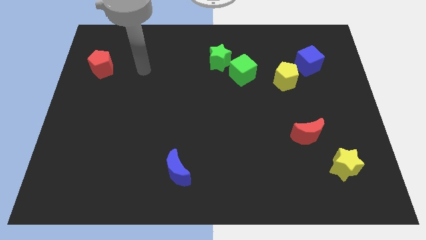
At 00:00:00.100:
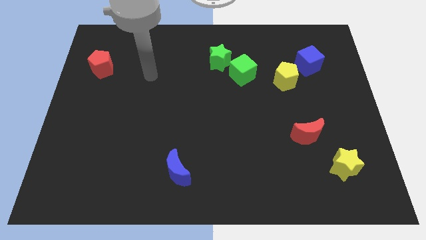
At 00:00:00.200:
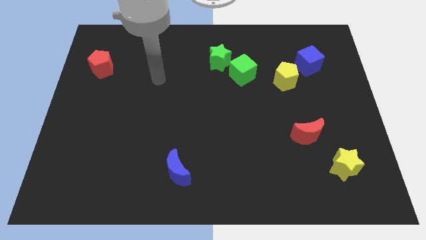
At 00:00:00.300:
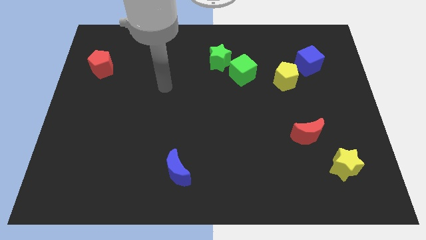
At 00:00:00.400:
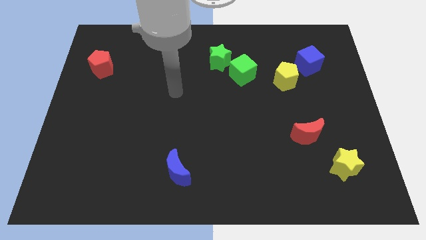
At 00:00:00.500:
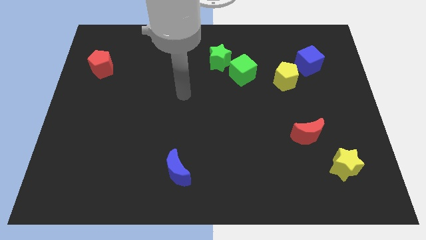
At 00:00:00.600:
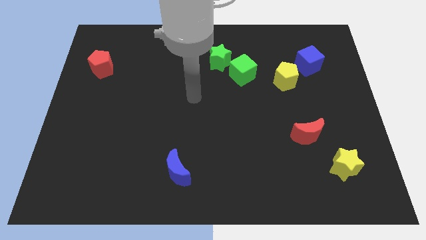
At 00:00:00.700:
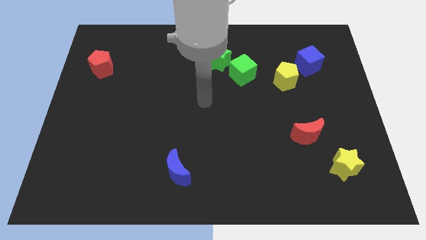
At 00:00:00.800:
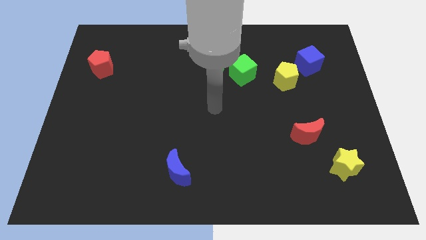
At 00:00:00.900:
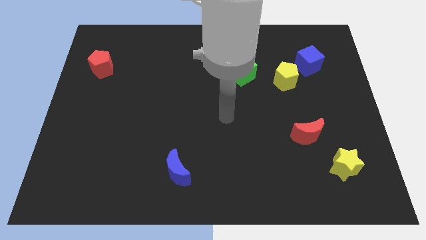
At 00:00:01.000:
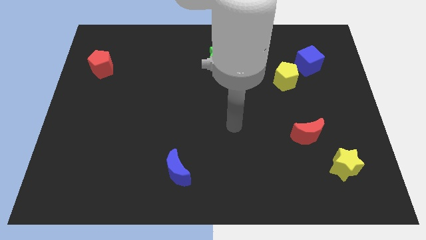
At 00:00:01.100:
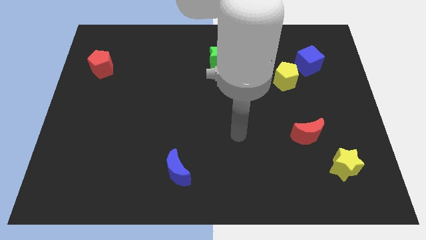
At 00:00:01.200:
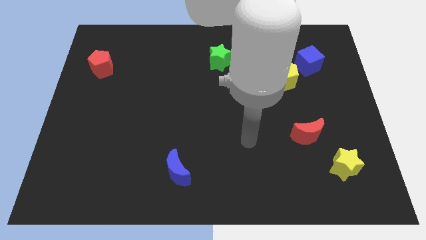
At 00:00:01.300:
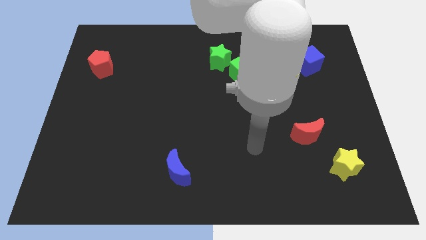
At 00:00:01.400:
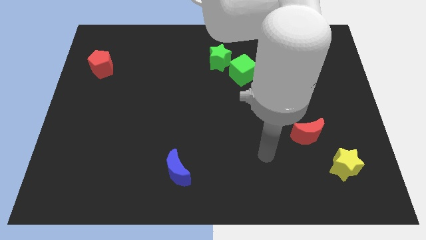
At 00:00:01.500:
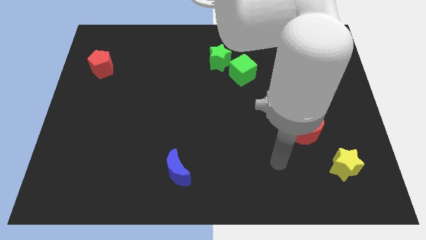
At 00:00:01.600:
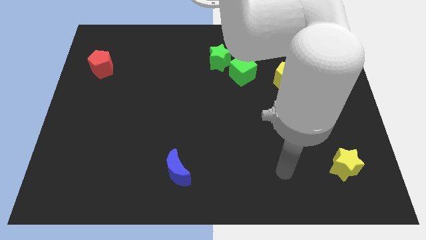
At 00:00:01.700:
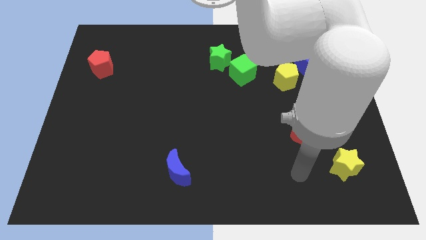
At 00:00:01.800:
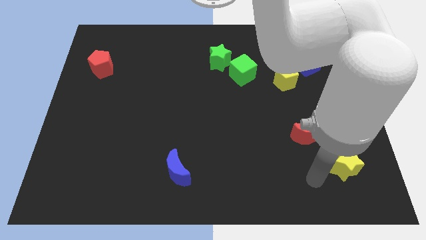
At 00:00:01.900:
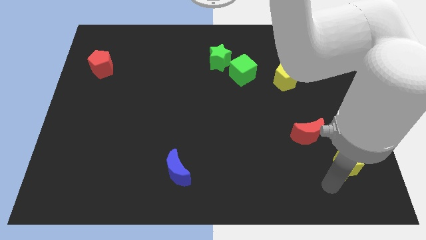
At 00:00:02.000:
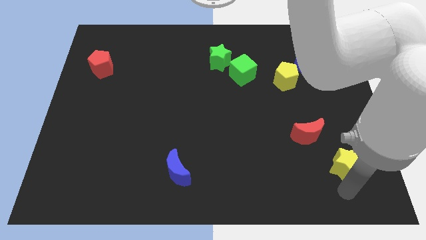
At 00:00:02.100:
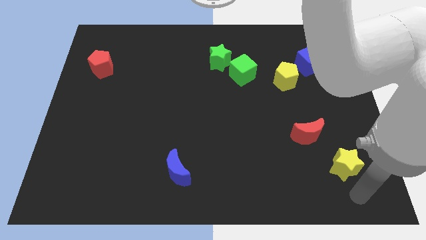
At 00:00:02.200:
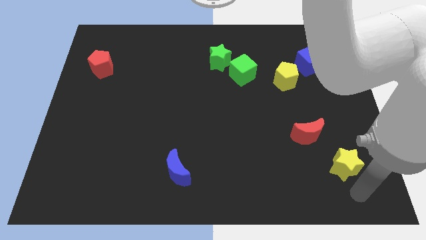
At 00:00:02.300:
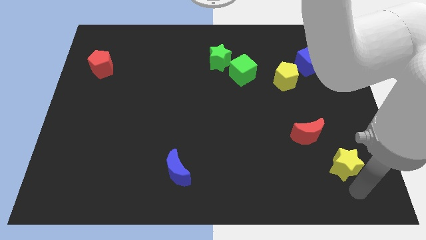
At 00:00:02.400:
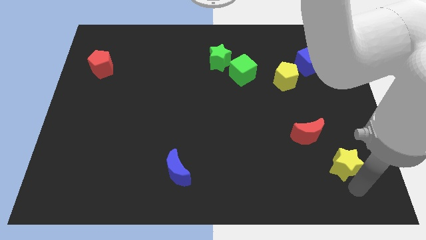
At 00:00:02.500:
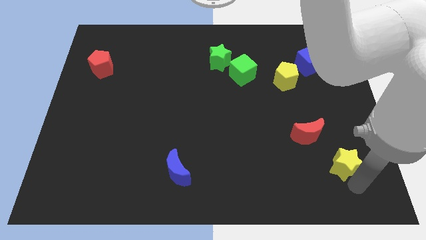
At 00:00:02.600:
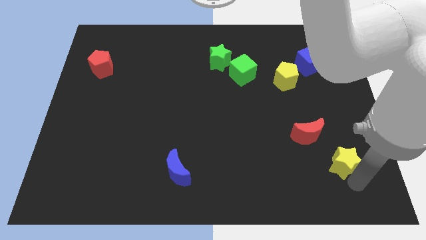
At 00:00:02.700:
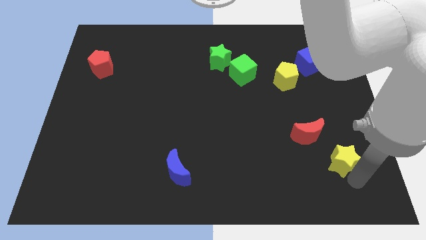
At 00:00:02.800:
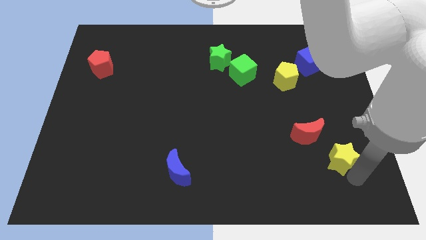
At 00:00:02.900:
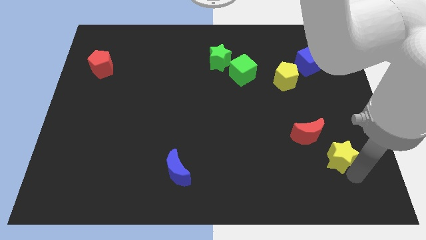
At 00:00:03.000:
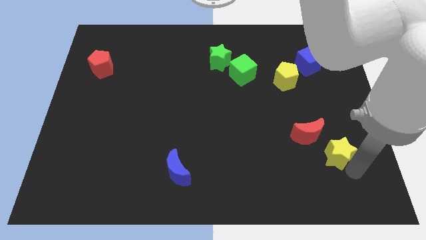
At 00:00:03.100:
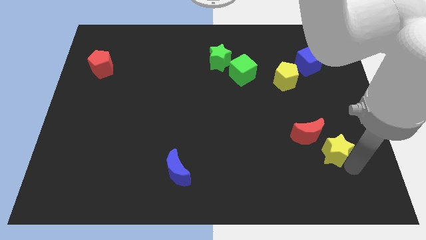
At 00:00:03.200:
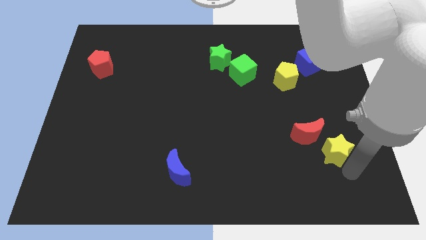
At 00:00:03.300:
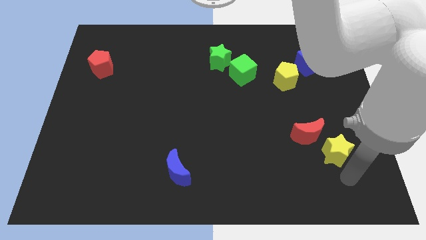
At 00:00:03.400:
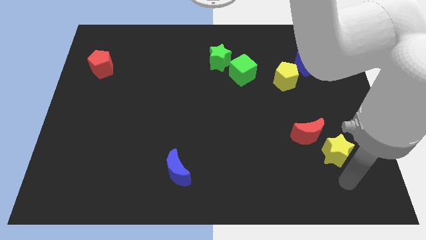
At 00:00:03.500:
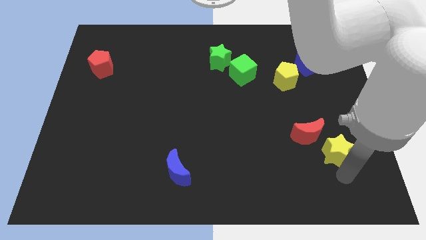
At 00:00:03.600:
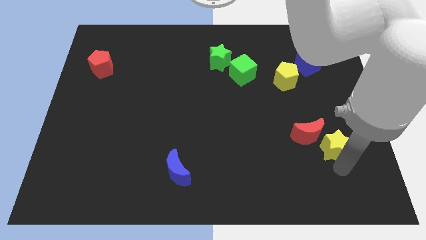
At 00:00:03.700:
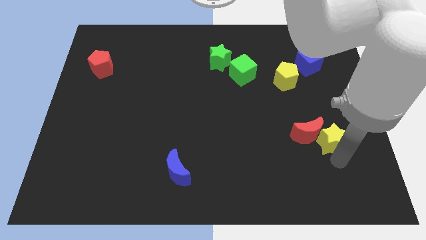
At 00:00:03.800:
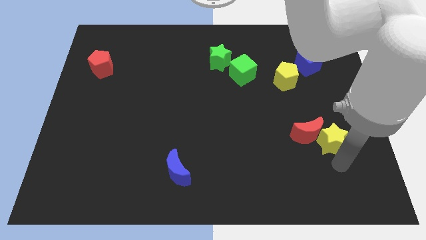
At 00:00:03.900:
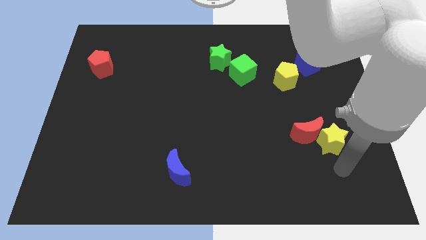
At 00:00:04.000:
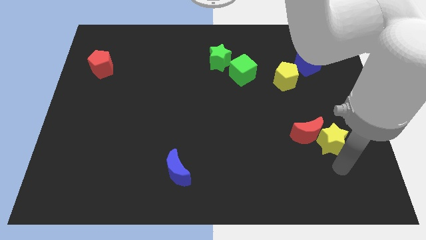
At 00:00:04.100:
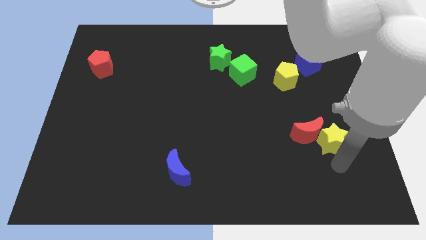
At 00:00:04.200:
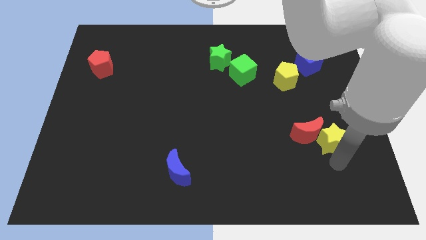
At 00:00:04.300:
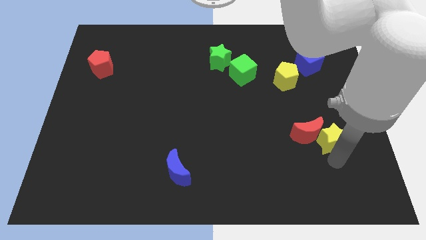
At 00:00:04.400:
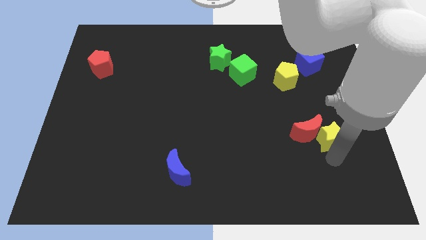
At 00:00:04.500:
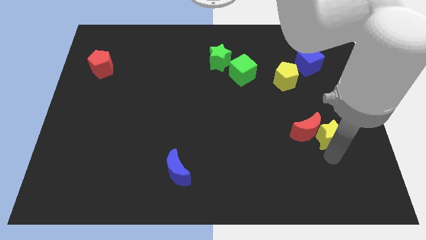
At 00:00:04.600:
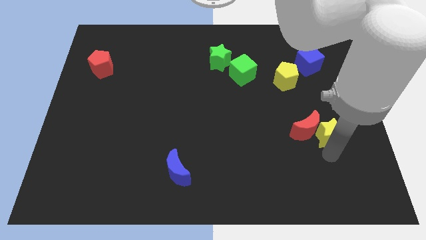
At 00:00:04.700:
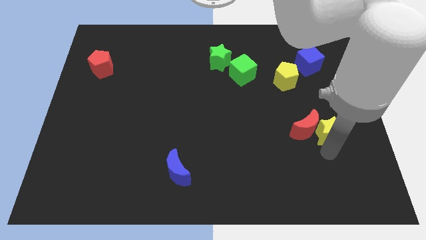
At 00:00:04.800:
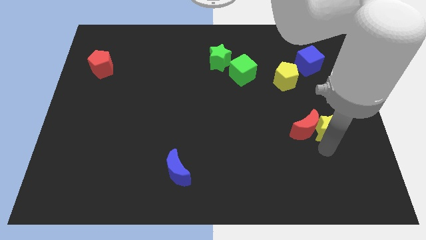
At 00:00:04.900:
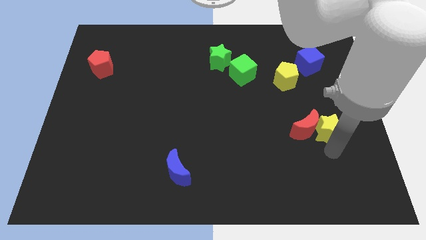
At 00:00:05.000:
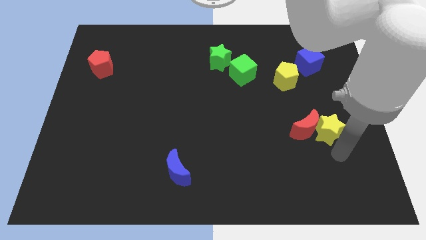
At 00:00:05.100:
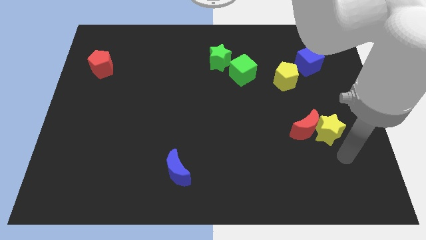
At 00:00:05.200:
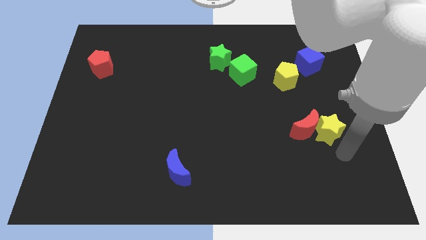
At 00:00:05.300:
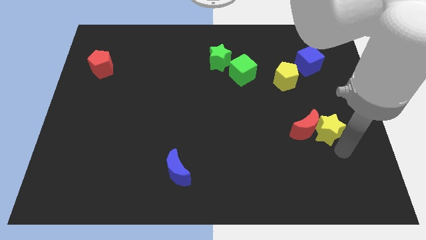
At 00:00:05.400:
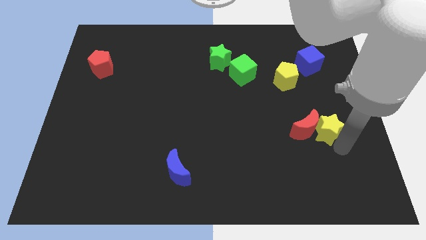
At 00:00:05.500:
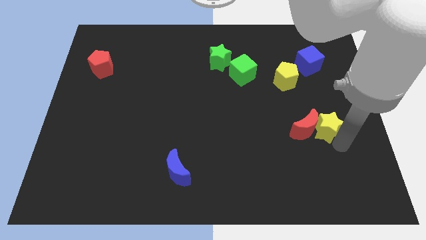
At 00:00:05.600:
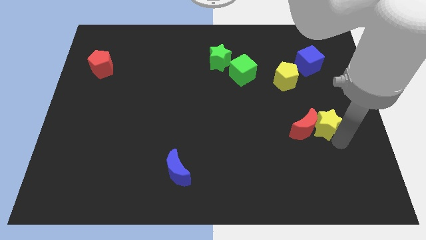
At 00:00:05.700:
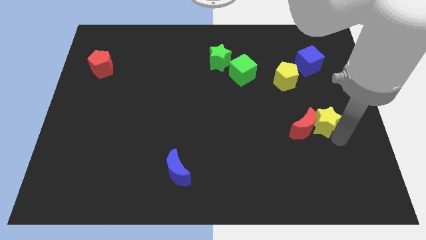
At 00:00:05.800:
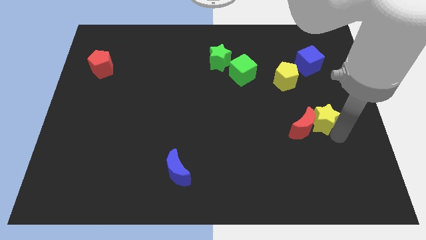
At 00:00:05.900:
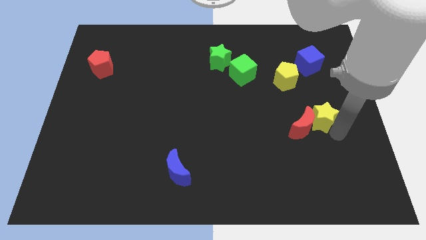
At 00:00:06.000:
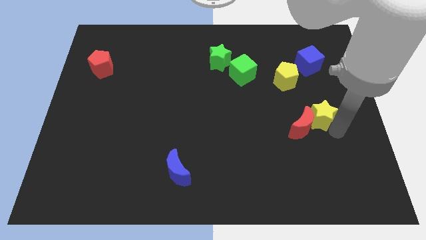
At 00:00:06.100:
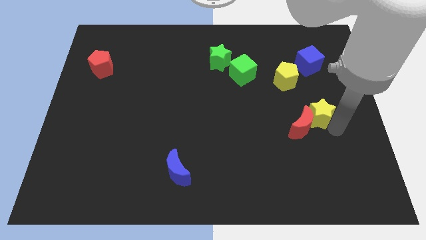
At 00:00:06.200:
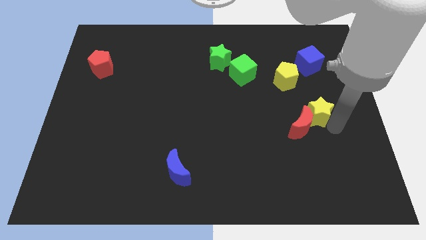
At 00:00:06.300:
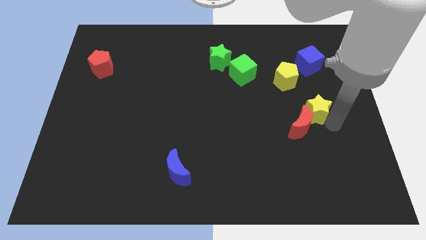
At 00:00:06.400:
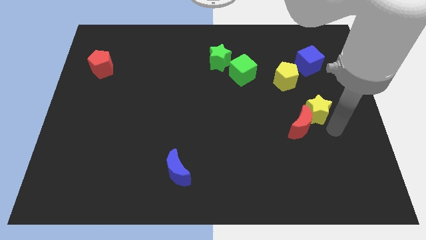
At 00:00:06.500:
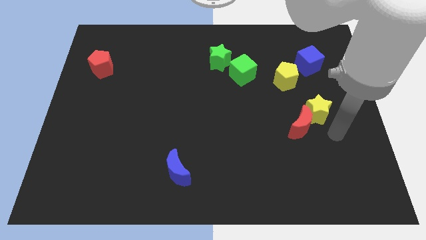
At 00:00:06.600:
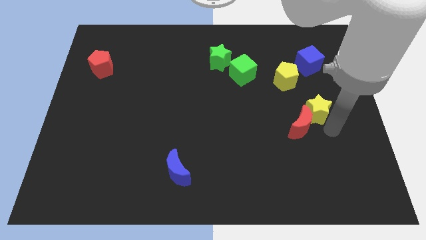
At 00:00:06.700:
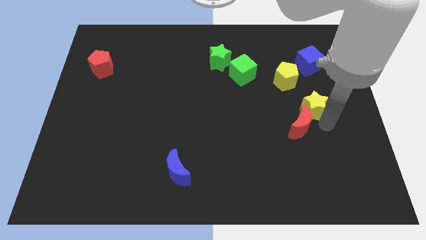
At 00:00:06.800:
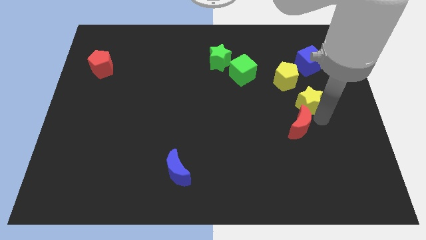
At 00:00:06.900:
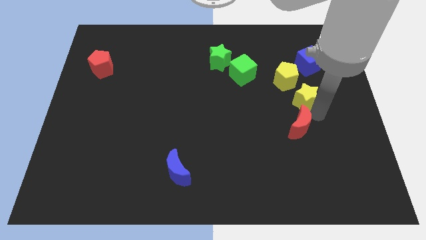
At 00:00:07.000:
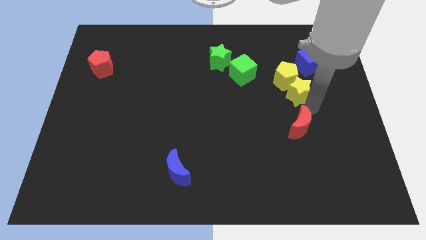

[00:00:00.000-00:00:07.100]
move the yellow star to the yellow pentagon

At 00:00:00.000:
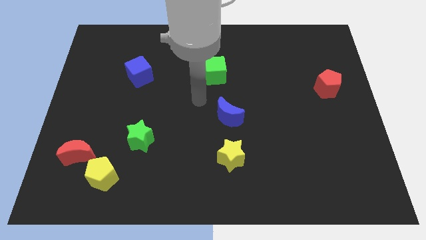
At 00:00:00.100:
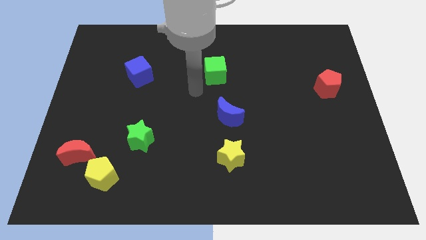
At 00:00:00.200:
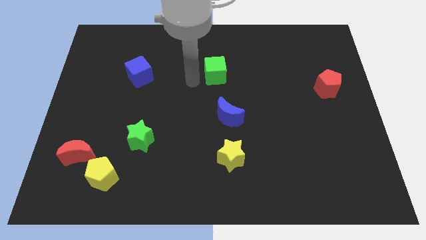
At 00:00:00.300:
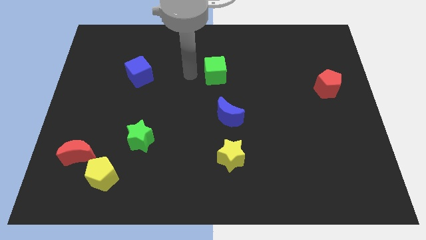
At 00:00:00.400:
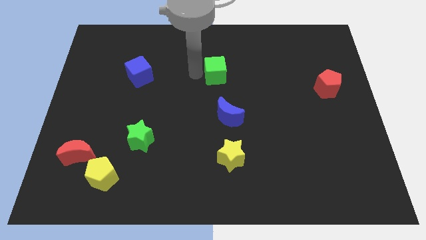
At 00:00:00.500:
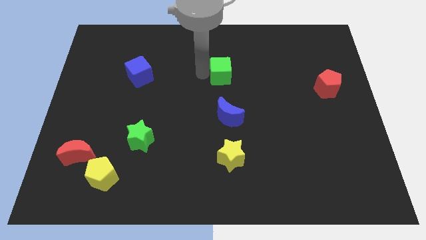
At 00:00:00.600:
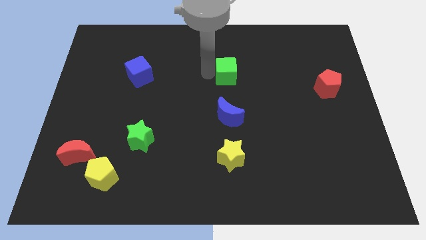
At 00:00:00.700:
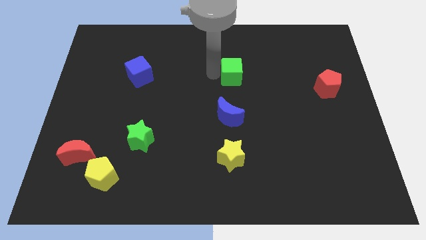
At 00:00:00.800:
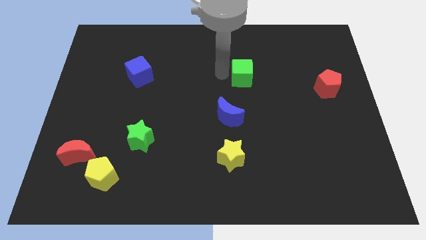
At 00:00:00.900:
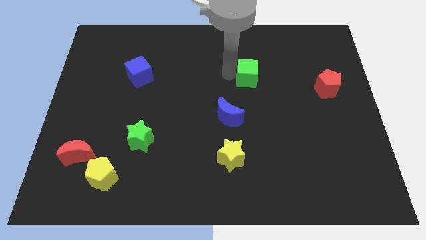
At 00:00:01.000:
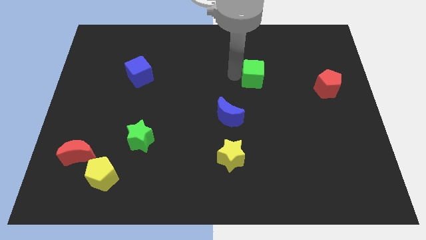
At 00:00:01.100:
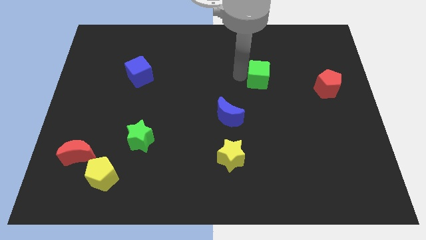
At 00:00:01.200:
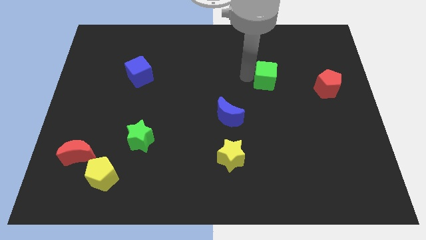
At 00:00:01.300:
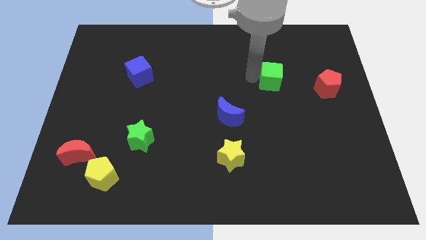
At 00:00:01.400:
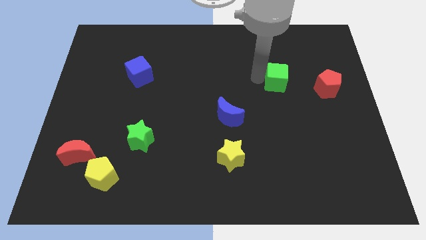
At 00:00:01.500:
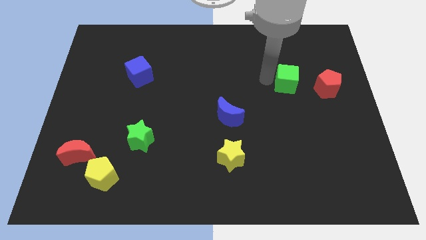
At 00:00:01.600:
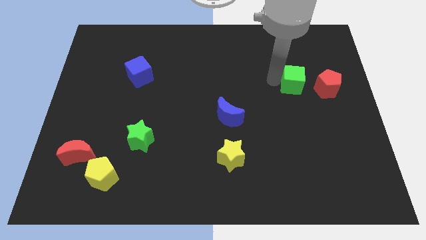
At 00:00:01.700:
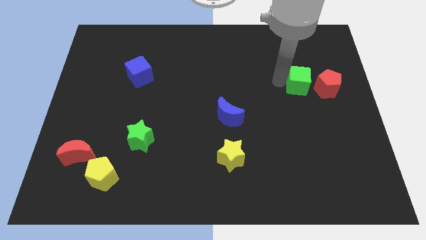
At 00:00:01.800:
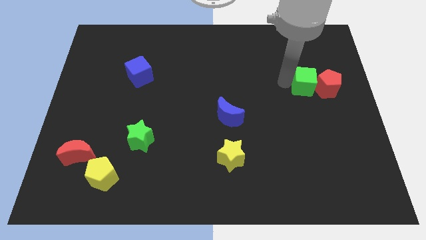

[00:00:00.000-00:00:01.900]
move the green cube next to the red pentagon
